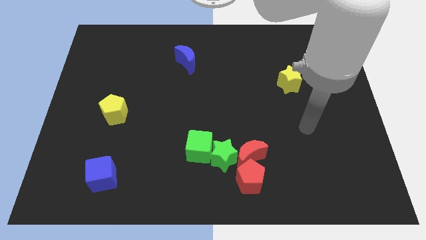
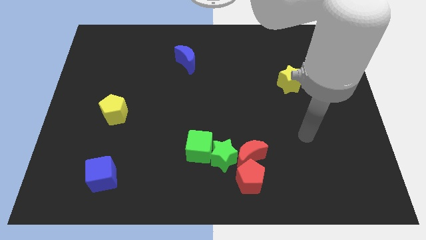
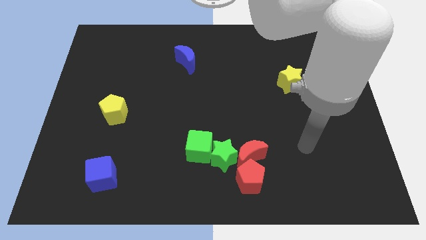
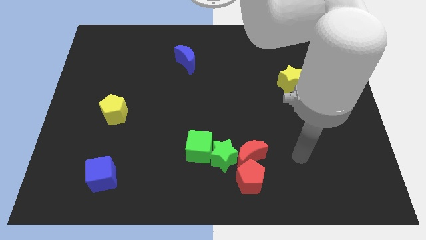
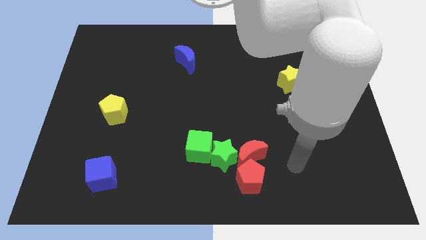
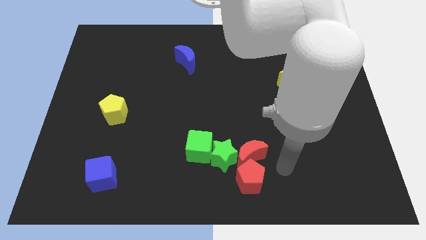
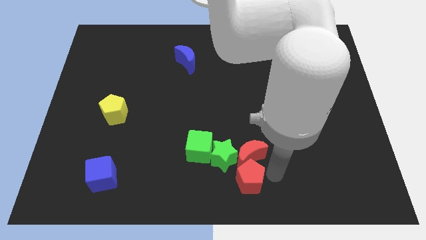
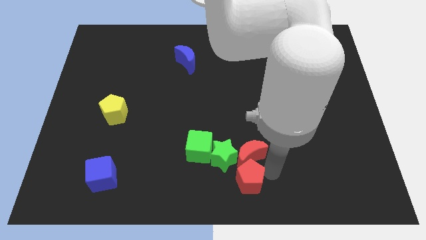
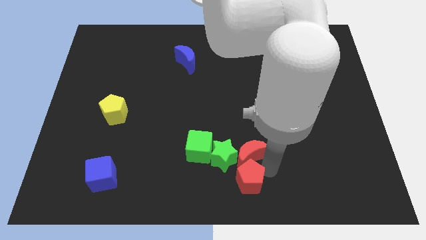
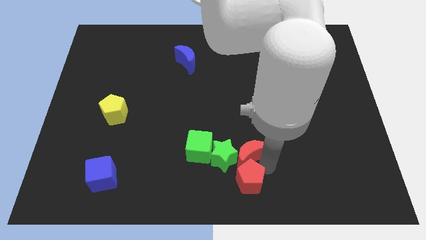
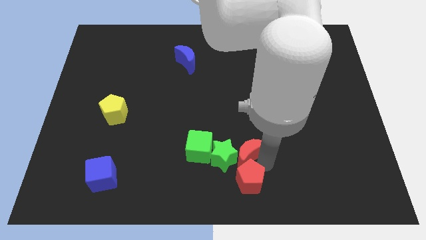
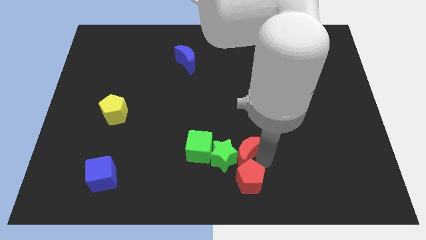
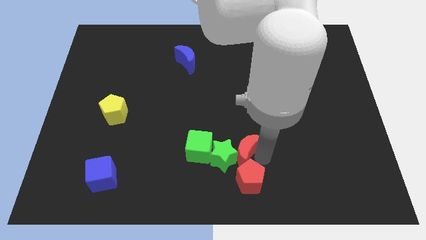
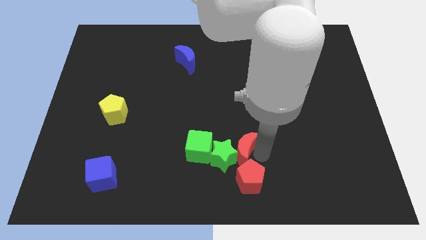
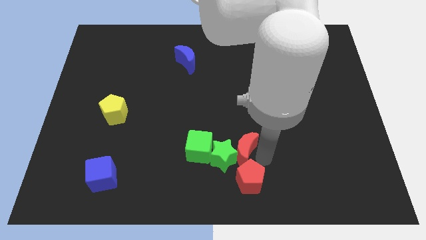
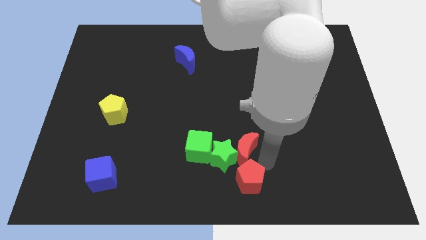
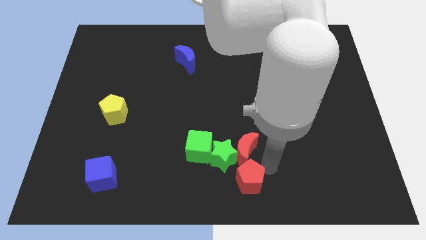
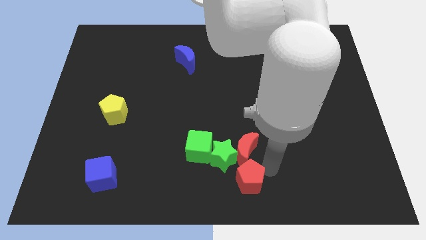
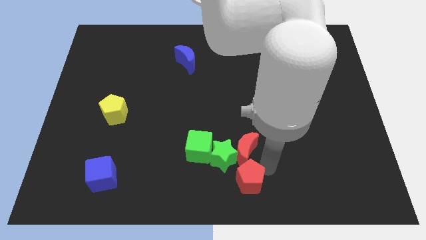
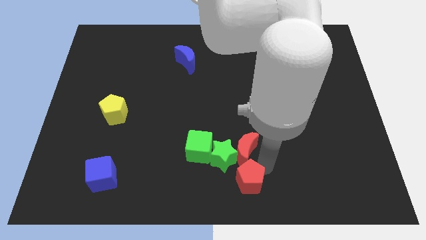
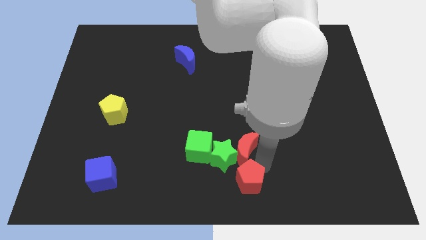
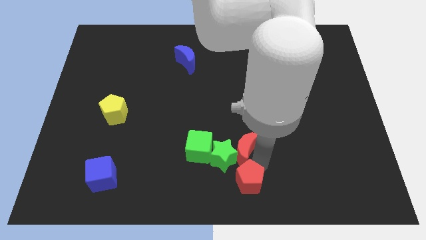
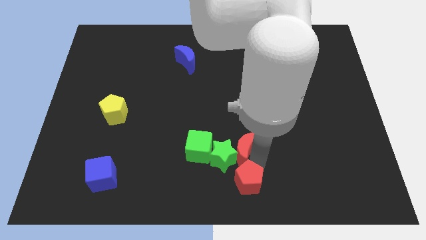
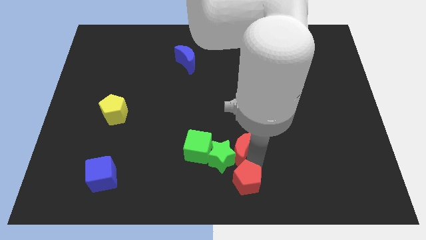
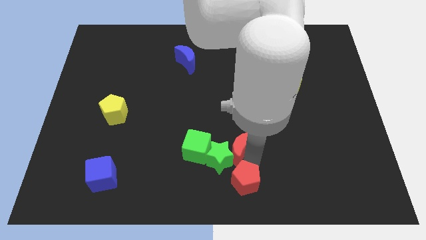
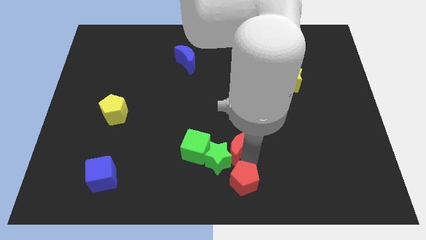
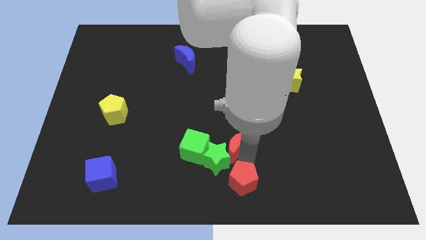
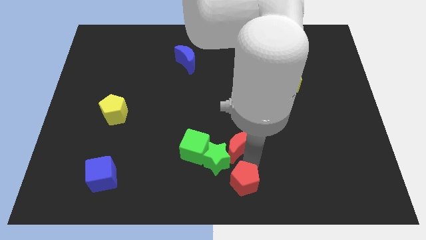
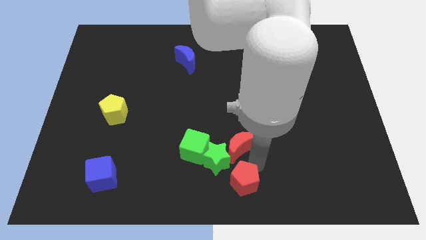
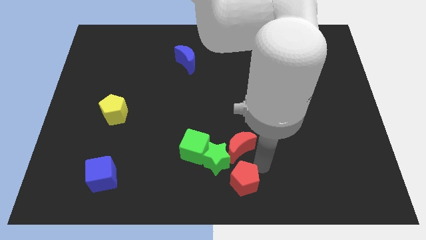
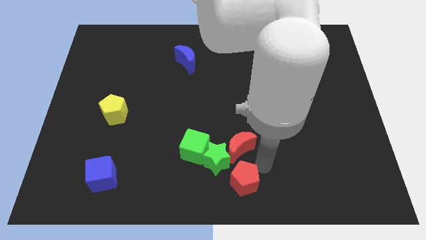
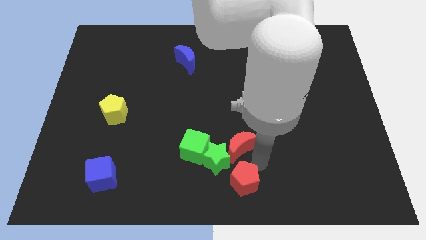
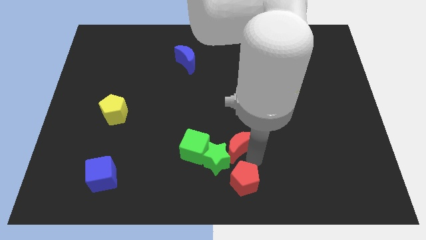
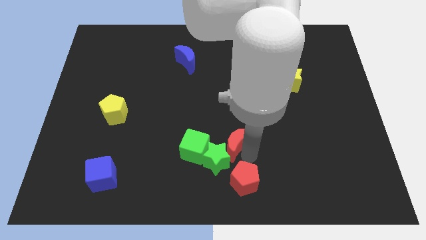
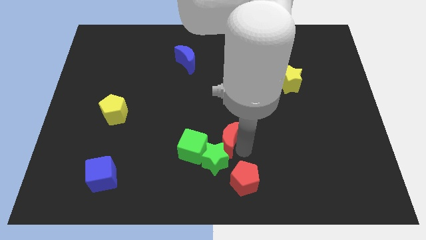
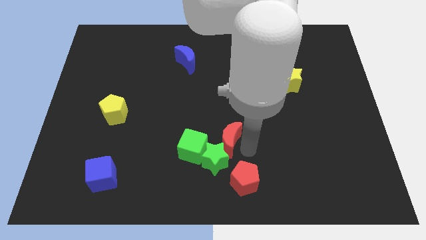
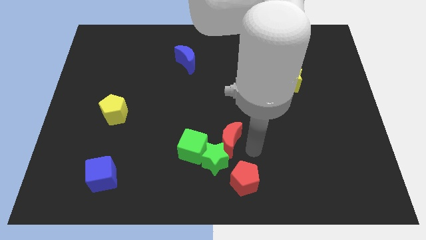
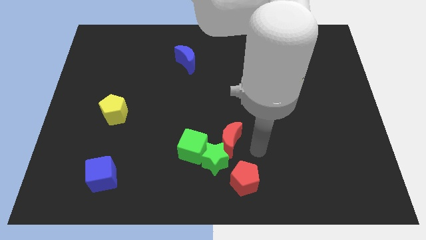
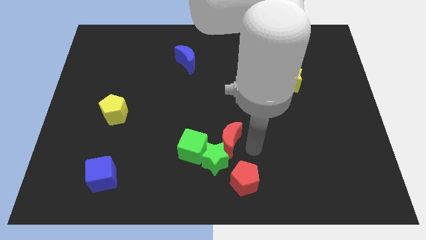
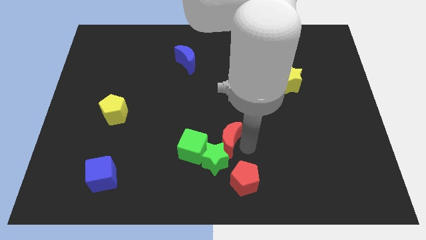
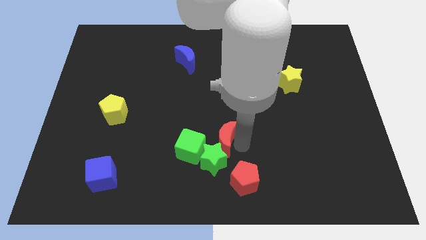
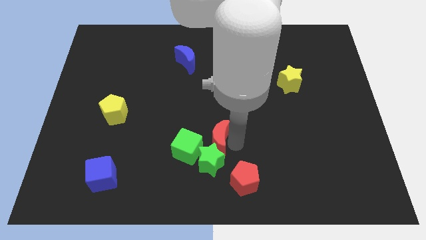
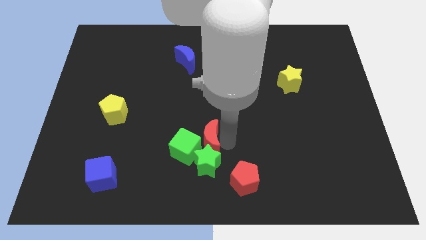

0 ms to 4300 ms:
slightly move the red moon to the left

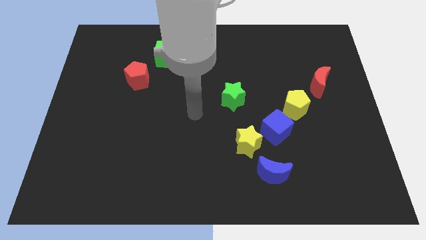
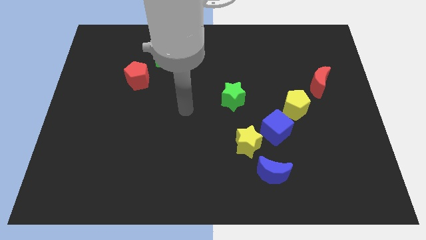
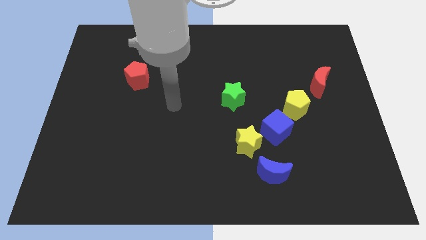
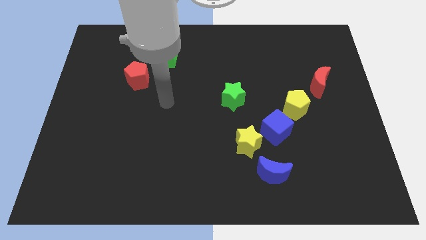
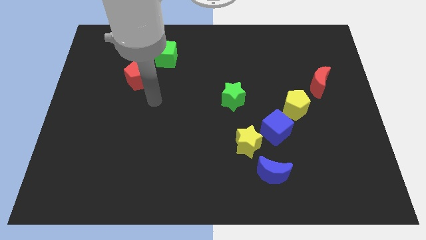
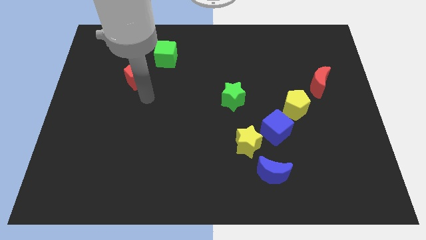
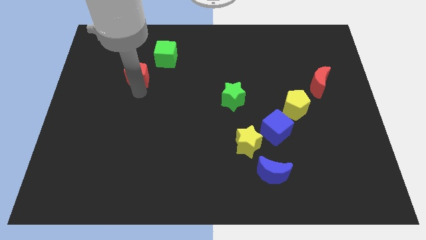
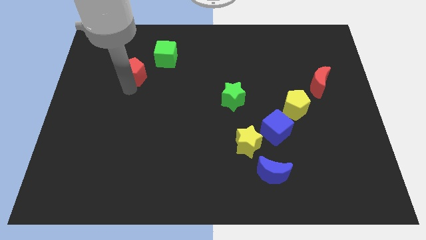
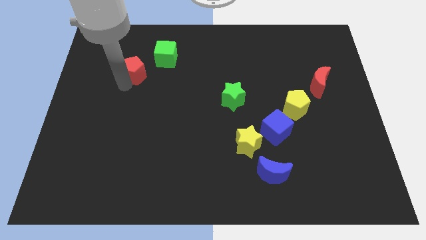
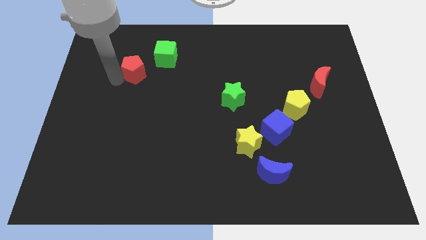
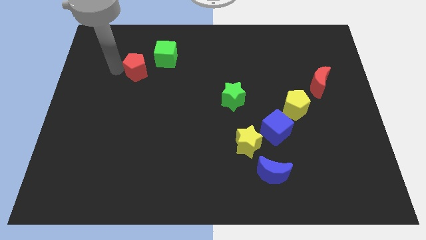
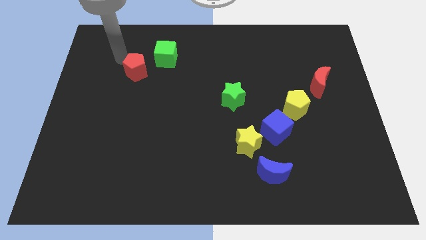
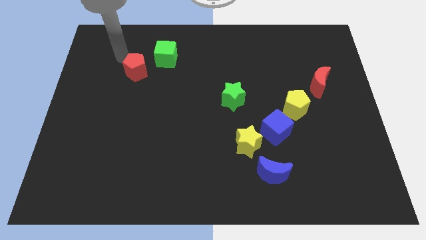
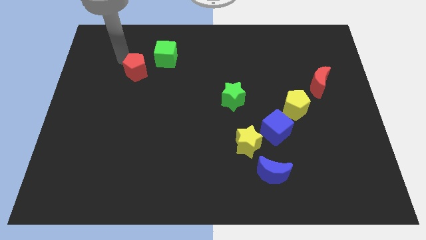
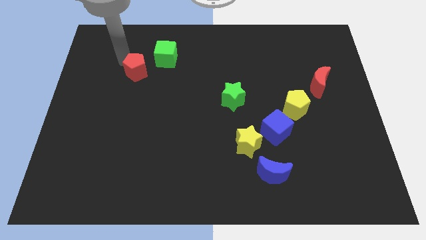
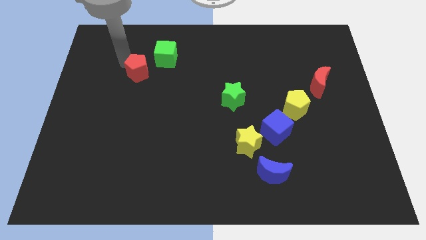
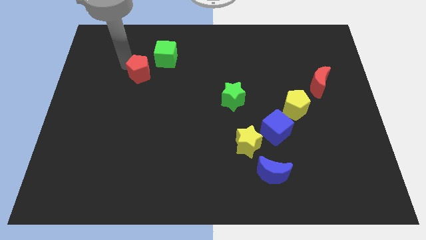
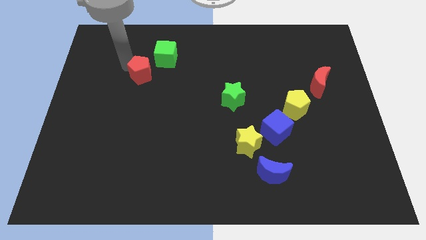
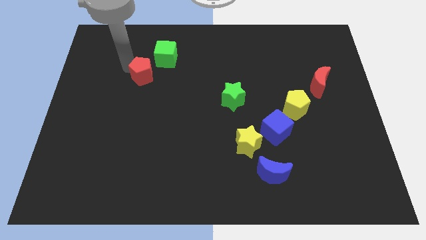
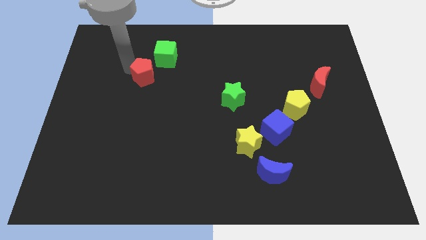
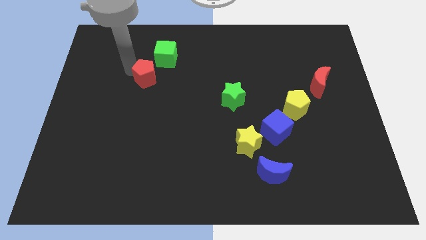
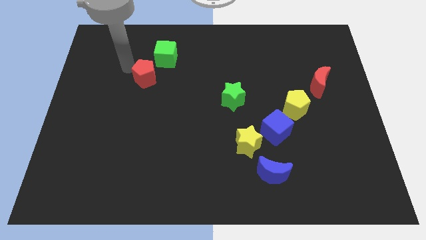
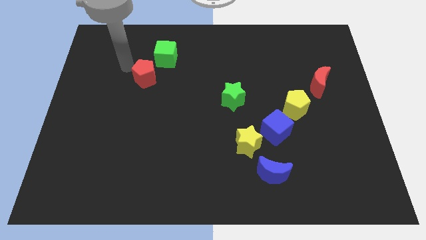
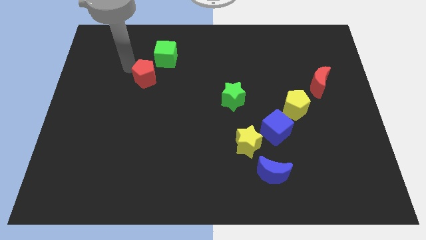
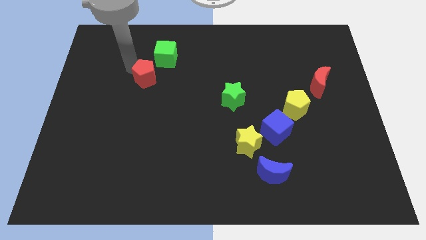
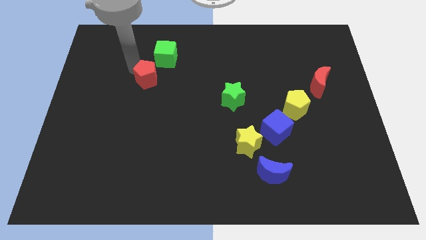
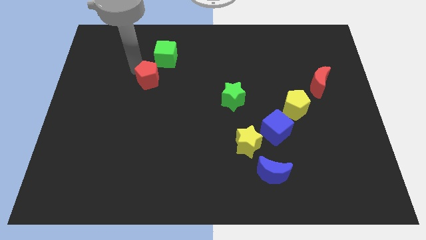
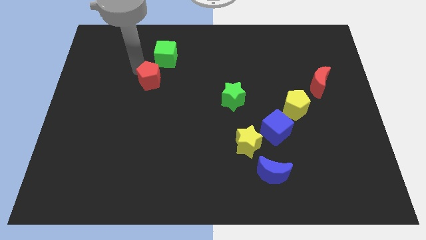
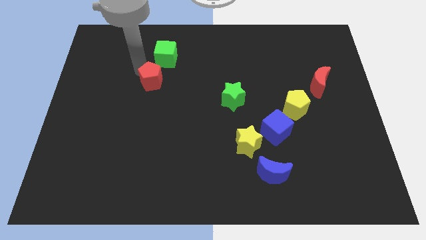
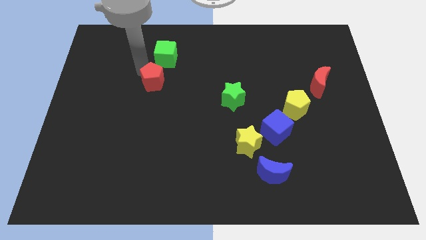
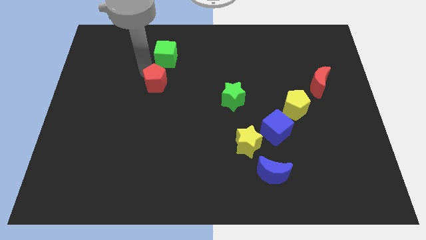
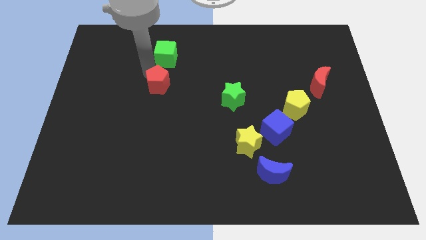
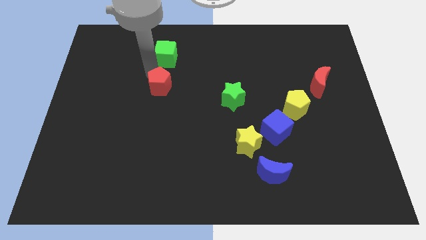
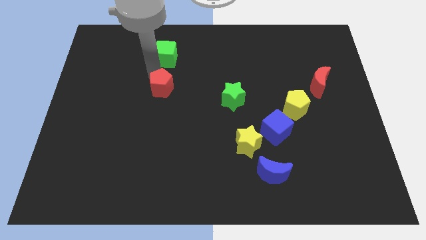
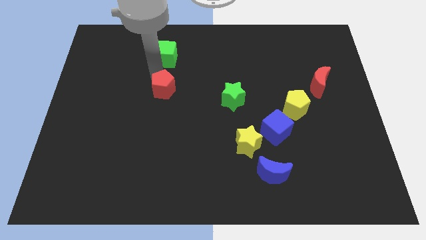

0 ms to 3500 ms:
push the red pentagon downwards and then right a bit

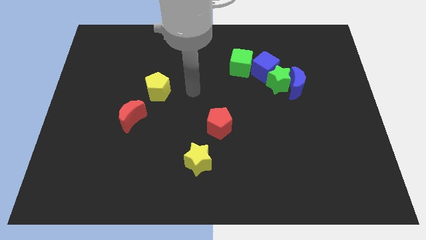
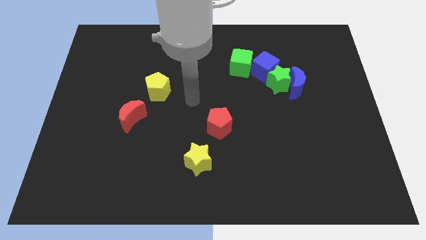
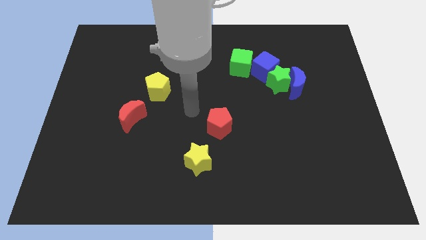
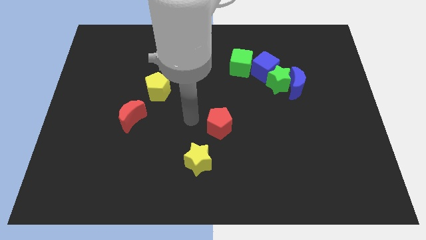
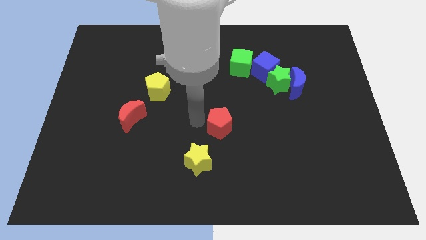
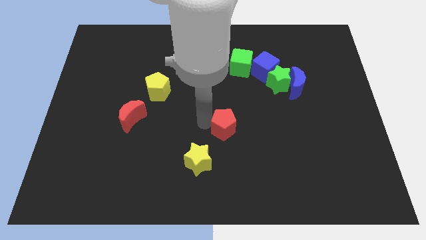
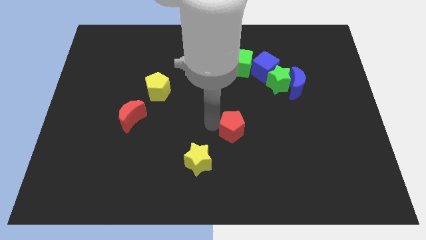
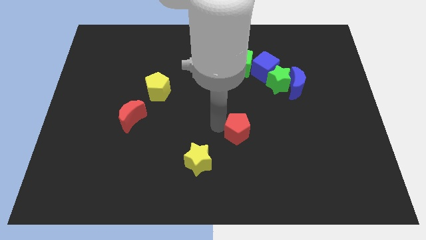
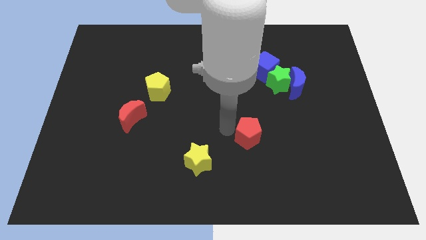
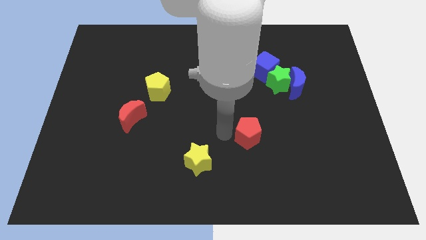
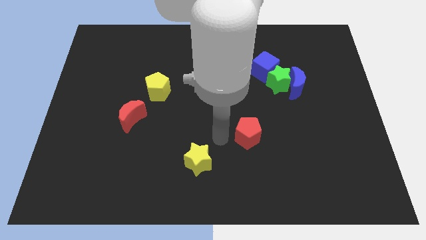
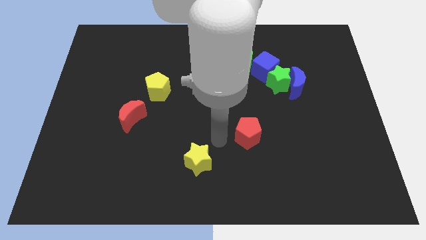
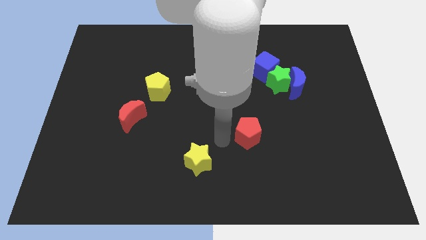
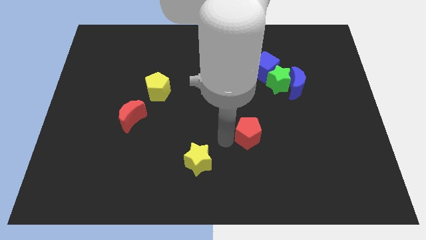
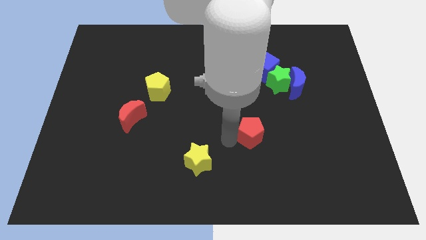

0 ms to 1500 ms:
slightly slide the red pentagon right
